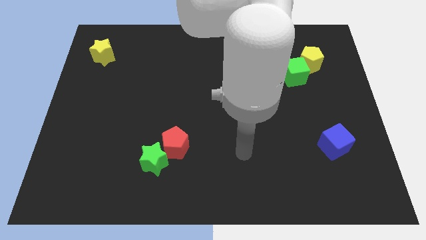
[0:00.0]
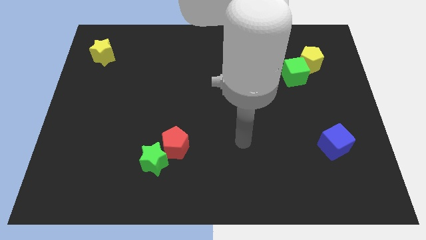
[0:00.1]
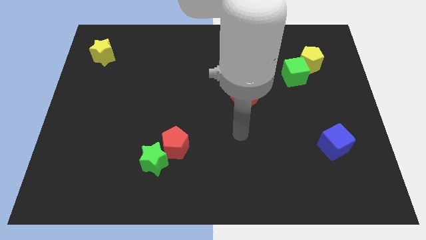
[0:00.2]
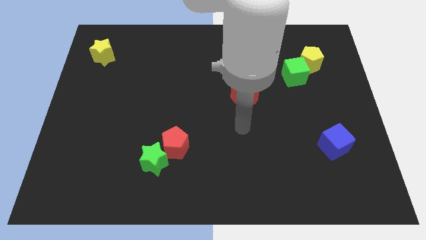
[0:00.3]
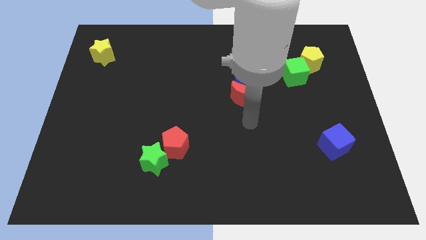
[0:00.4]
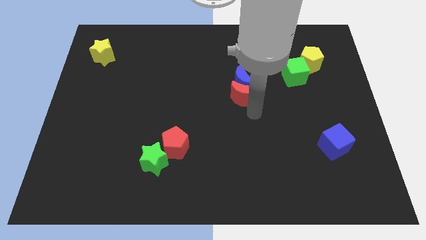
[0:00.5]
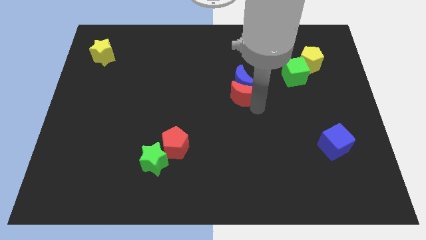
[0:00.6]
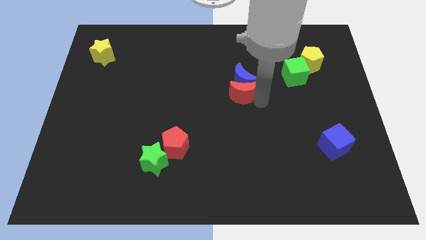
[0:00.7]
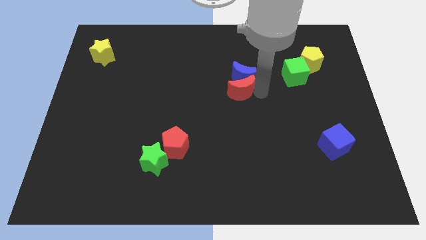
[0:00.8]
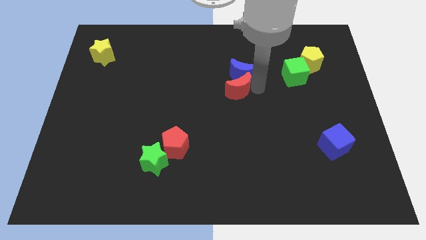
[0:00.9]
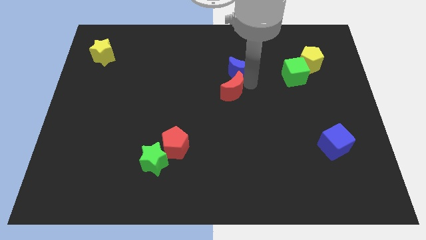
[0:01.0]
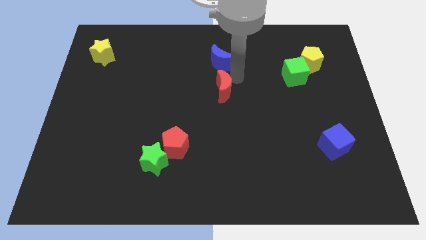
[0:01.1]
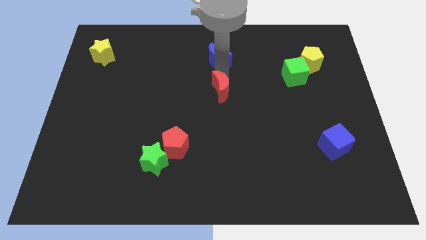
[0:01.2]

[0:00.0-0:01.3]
separate the red moon from the blue moon

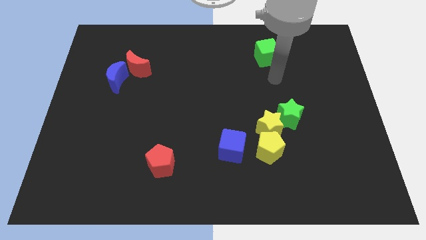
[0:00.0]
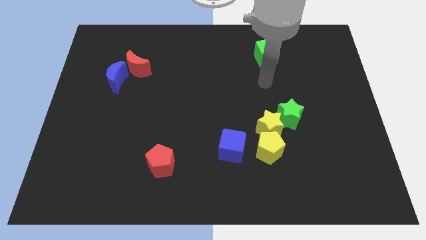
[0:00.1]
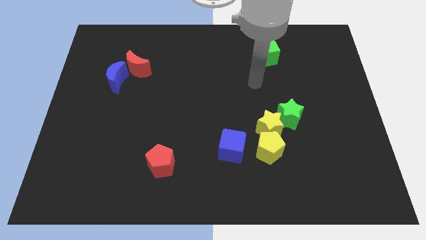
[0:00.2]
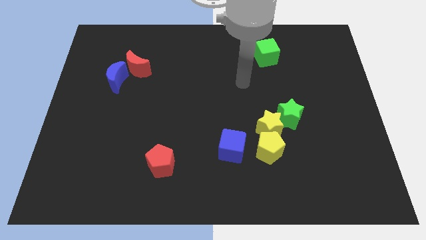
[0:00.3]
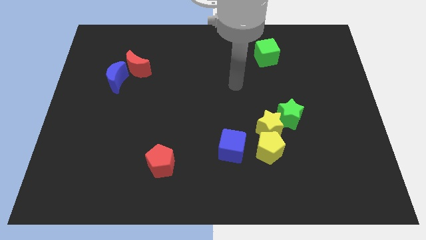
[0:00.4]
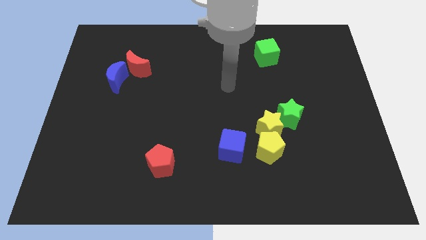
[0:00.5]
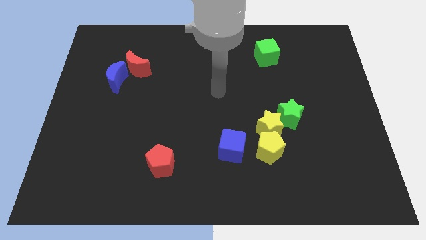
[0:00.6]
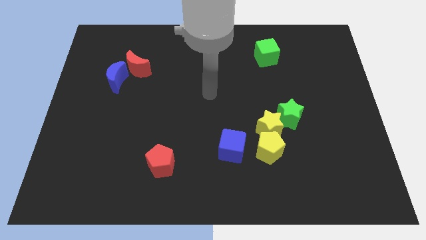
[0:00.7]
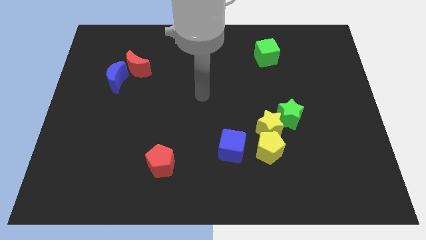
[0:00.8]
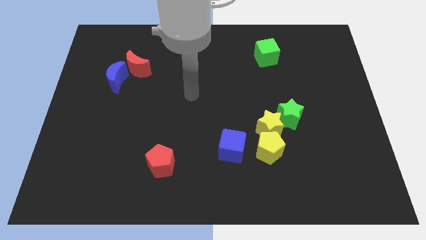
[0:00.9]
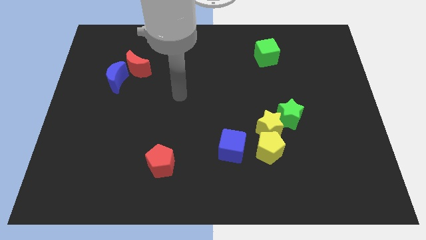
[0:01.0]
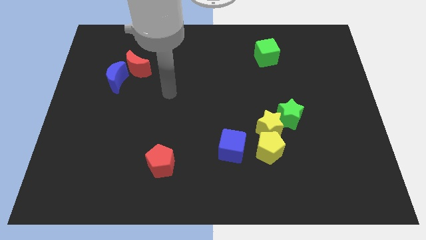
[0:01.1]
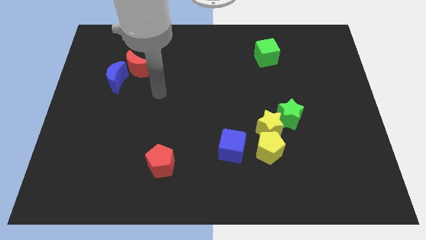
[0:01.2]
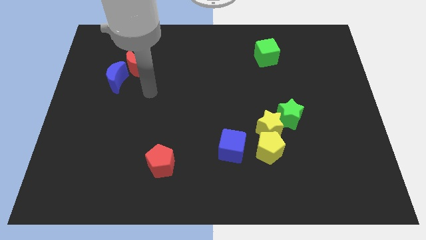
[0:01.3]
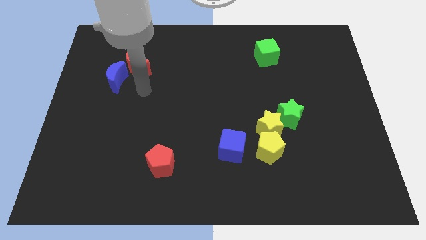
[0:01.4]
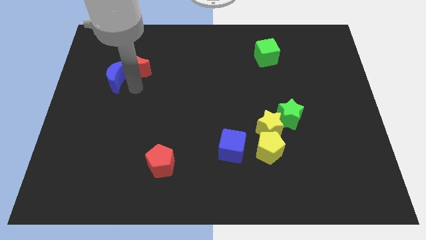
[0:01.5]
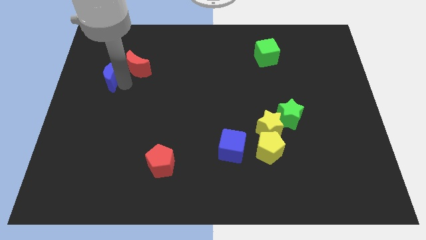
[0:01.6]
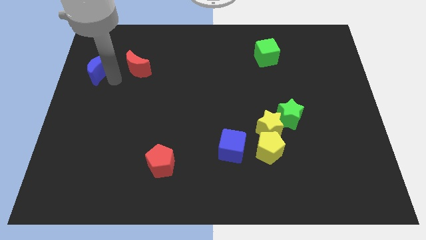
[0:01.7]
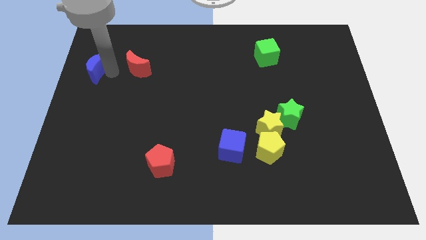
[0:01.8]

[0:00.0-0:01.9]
move the red moon away from the blue moon

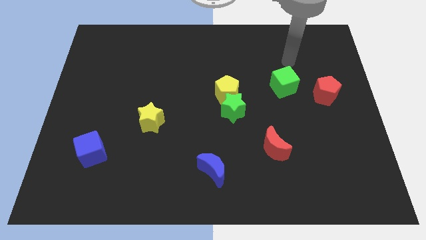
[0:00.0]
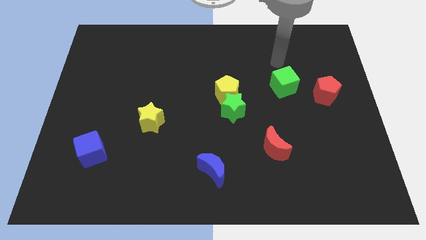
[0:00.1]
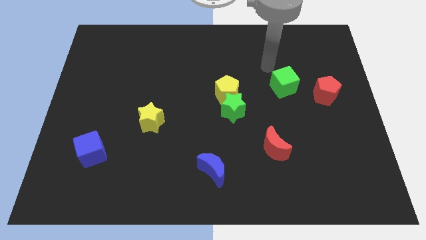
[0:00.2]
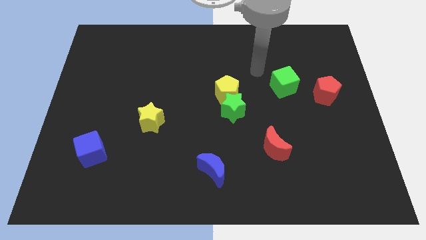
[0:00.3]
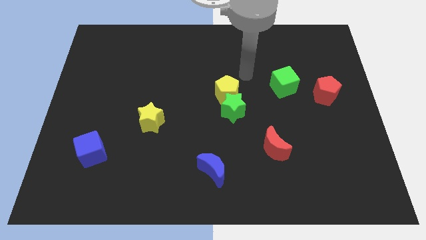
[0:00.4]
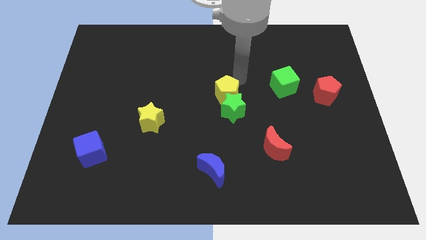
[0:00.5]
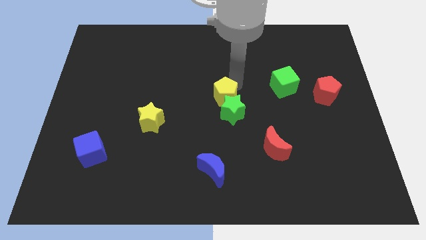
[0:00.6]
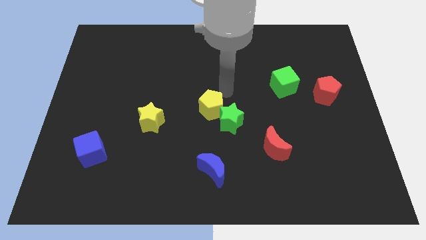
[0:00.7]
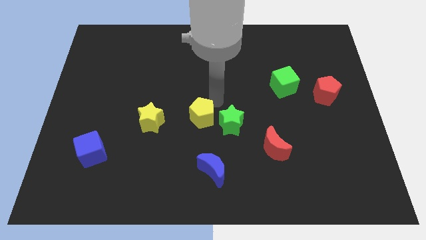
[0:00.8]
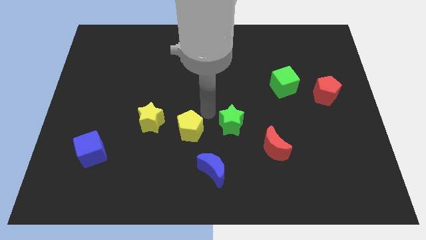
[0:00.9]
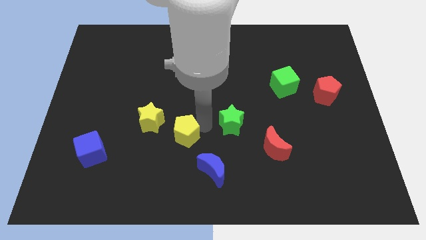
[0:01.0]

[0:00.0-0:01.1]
pull the green star apart from the yellow pentagon

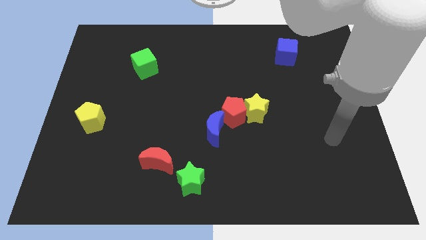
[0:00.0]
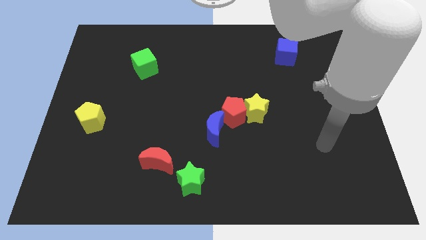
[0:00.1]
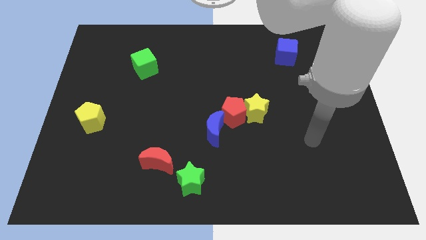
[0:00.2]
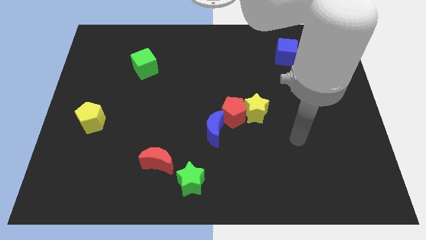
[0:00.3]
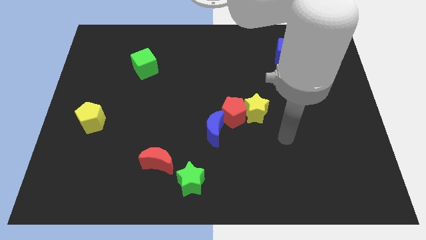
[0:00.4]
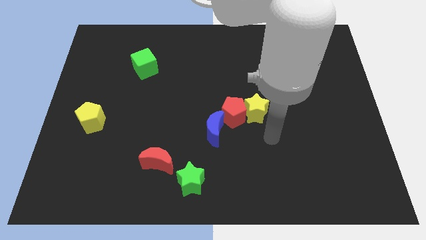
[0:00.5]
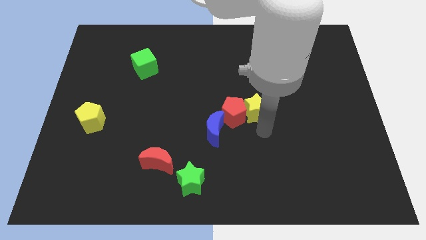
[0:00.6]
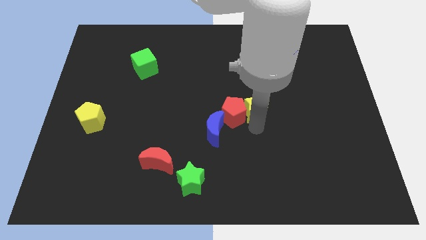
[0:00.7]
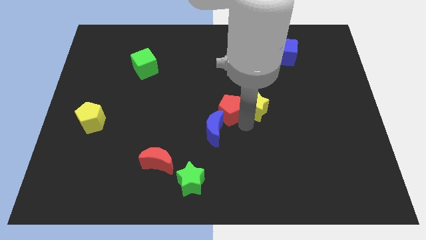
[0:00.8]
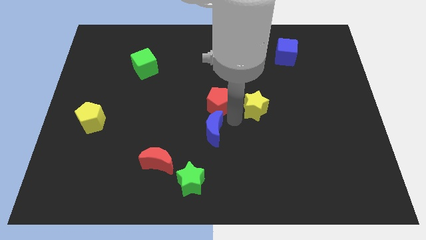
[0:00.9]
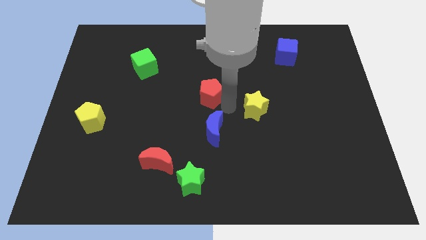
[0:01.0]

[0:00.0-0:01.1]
separate the yellow star from the red pentagon

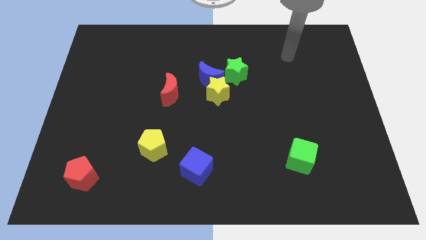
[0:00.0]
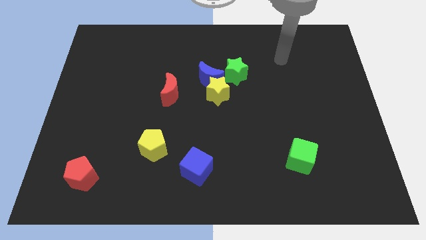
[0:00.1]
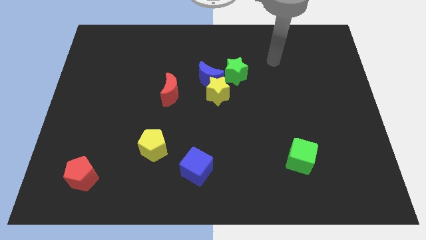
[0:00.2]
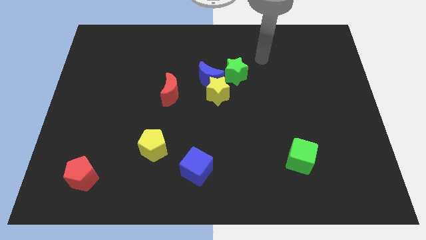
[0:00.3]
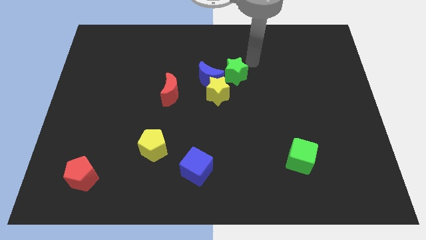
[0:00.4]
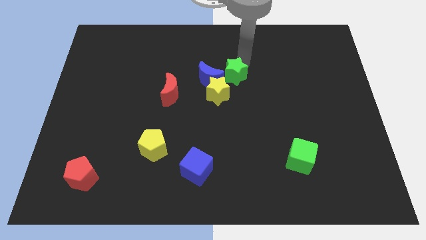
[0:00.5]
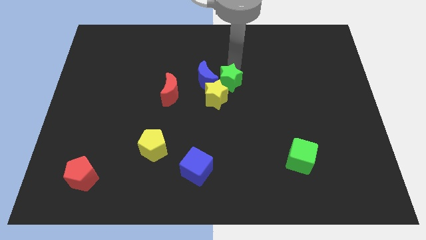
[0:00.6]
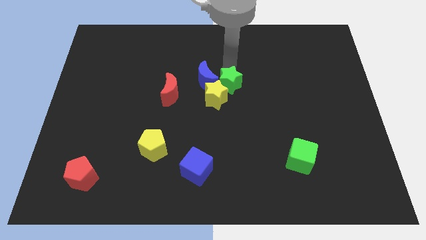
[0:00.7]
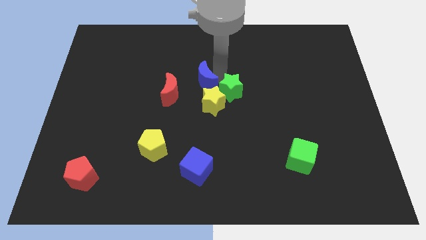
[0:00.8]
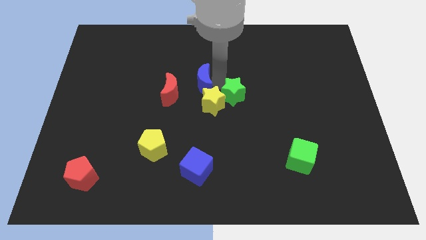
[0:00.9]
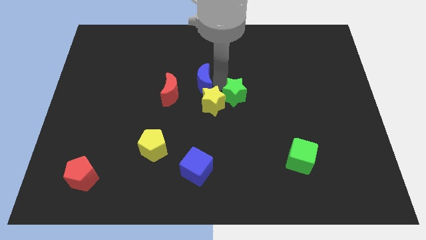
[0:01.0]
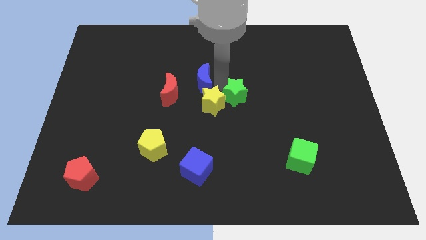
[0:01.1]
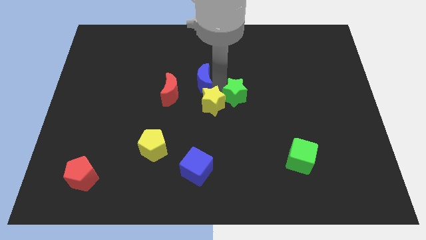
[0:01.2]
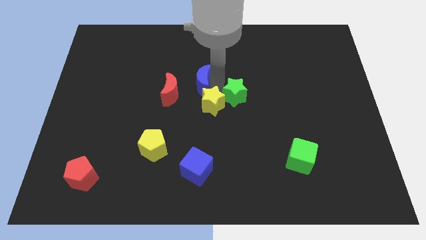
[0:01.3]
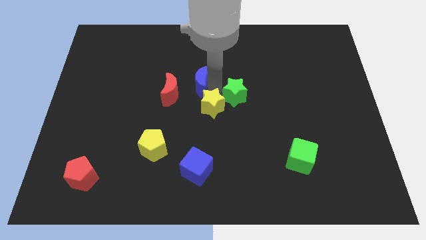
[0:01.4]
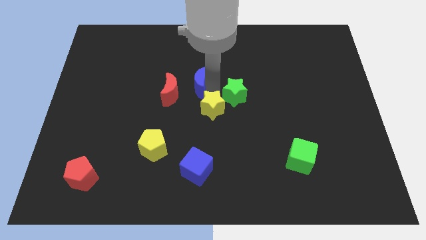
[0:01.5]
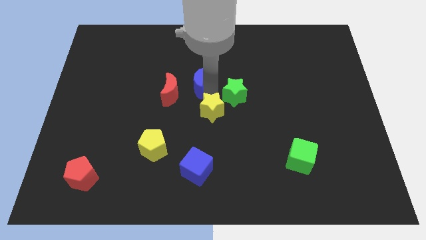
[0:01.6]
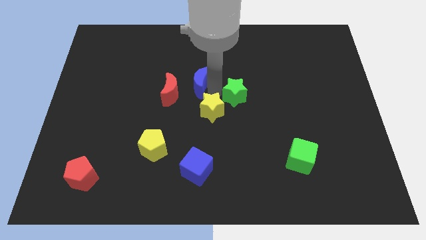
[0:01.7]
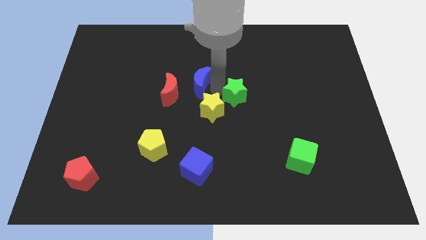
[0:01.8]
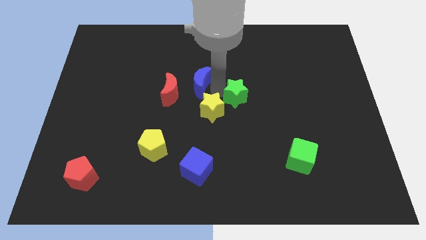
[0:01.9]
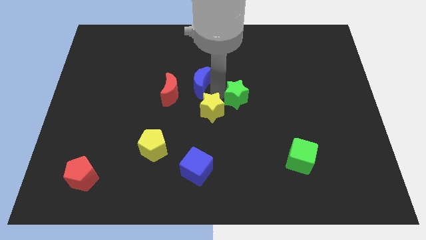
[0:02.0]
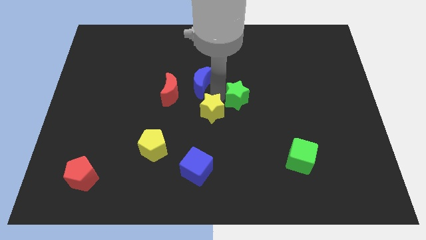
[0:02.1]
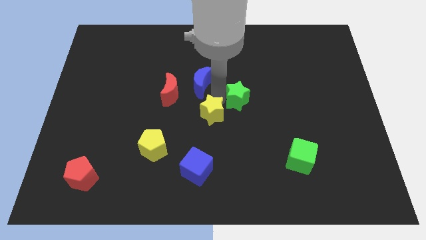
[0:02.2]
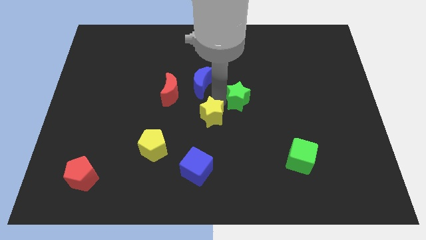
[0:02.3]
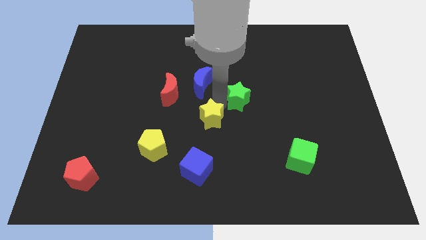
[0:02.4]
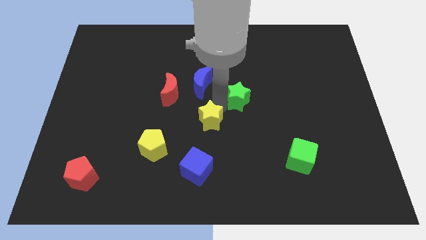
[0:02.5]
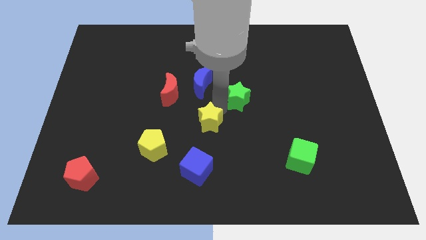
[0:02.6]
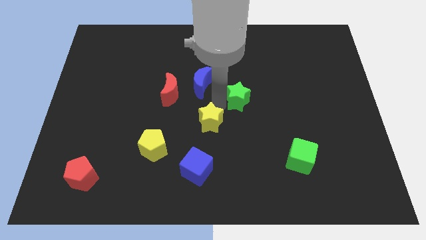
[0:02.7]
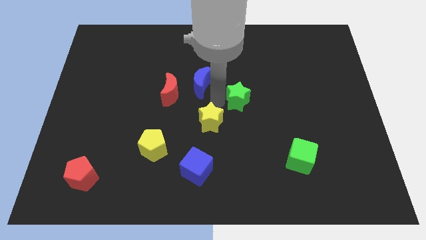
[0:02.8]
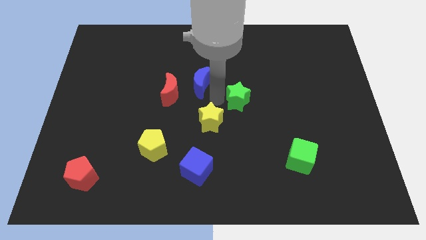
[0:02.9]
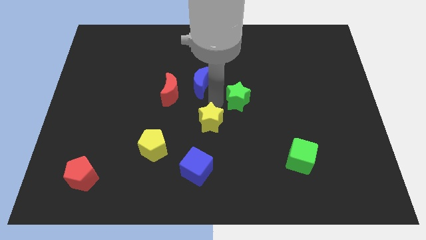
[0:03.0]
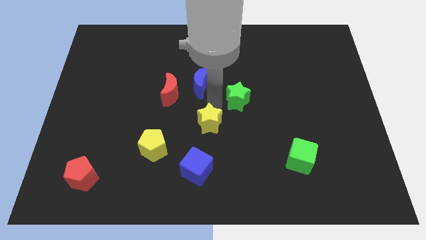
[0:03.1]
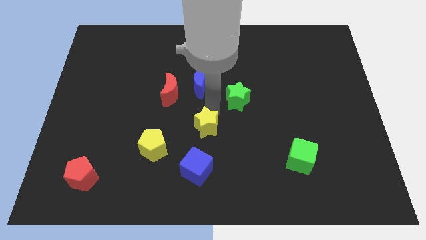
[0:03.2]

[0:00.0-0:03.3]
separate the yellow star from the blue moon and green star

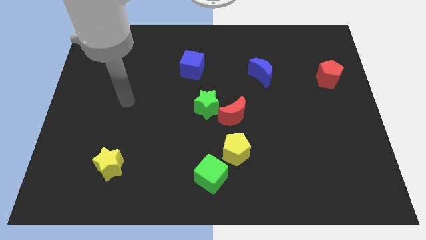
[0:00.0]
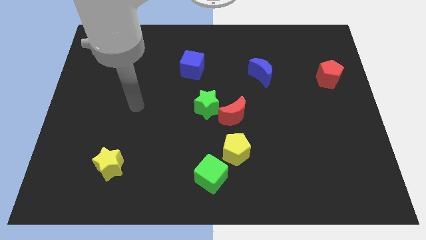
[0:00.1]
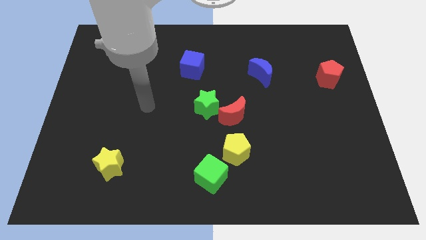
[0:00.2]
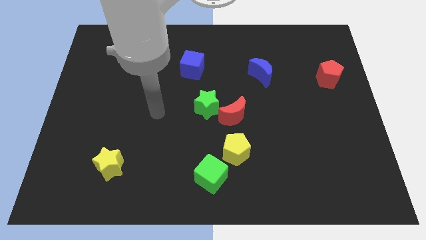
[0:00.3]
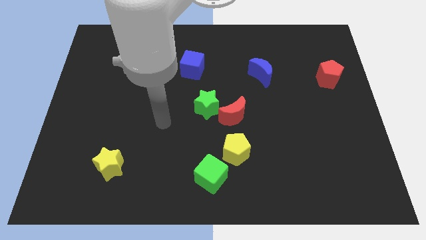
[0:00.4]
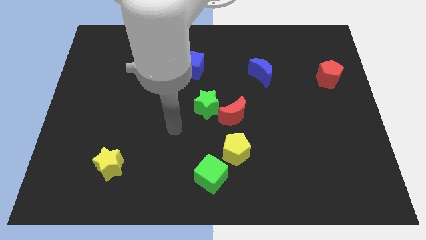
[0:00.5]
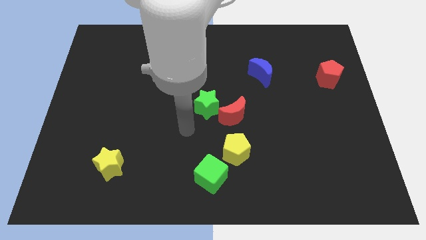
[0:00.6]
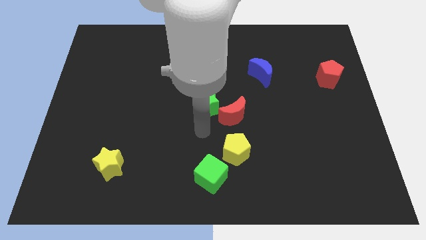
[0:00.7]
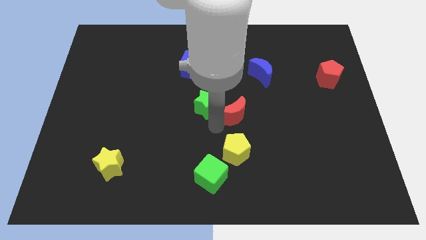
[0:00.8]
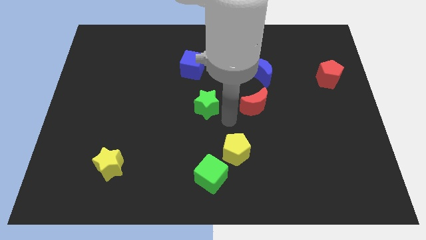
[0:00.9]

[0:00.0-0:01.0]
move the green star away from the red moon
